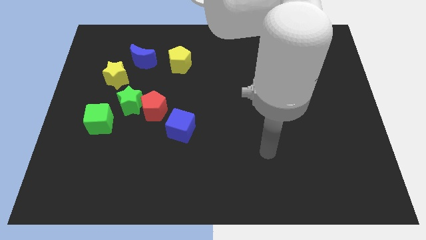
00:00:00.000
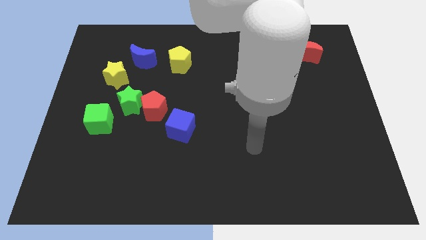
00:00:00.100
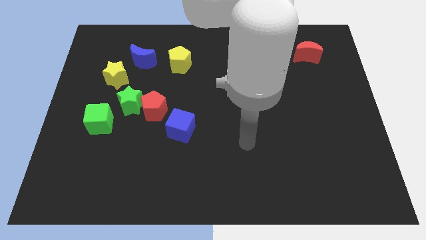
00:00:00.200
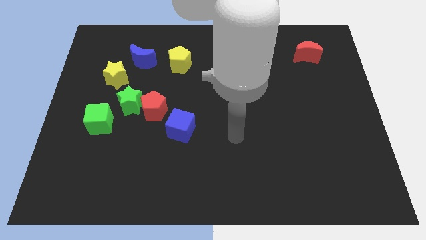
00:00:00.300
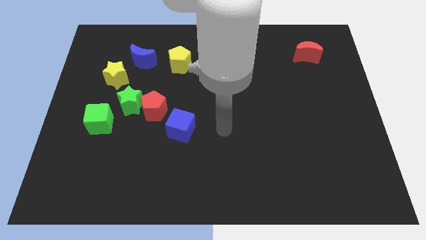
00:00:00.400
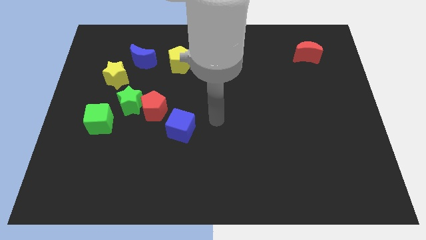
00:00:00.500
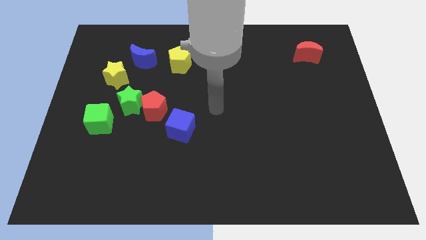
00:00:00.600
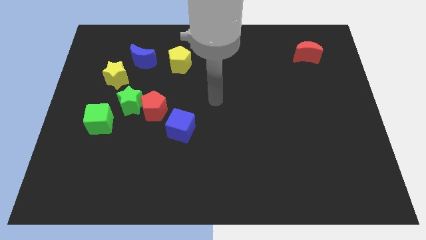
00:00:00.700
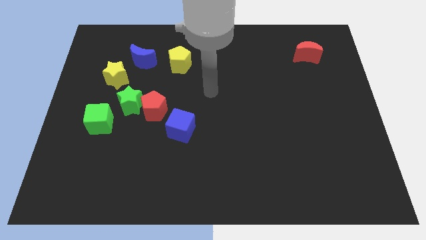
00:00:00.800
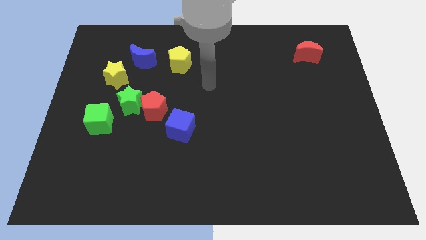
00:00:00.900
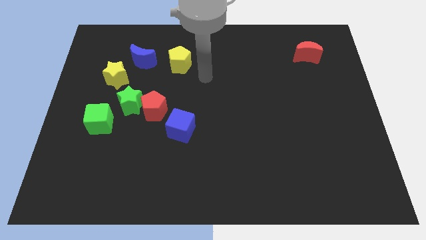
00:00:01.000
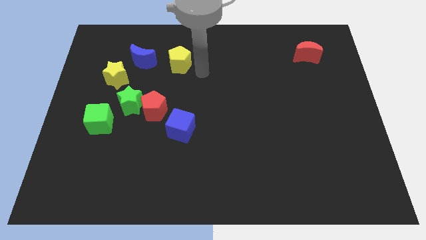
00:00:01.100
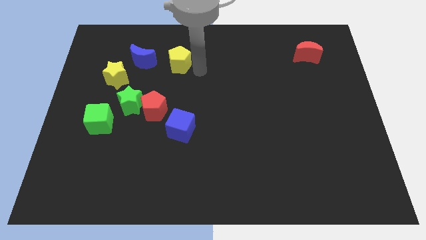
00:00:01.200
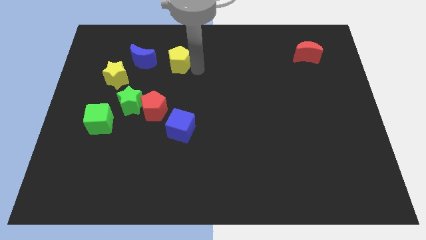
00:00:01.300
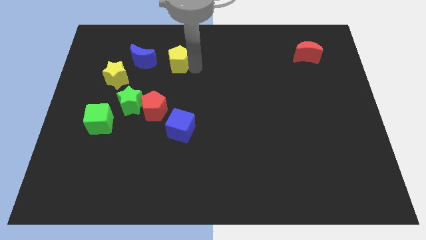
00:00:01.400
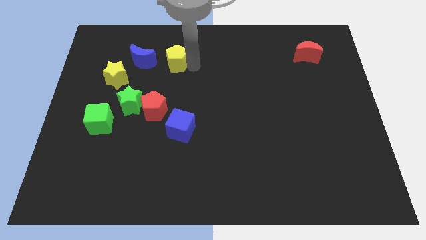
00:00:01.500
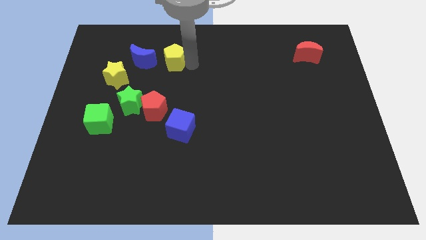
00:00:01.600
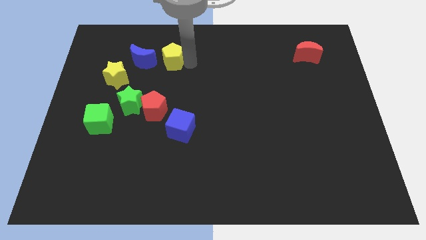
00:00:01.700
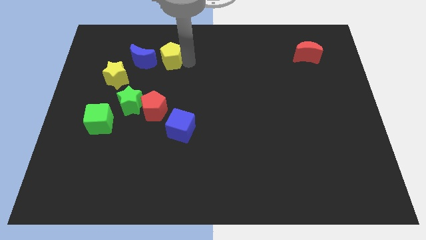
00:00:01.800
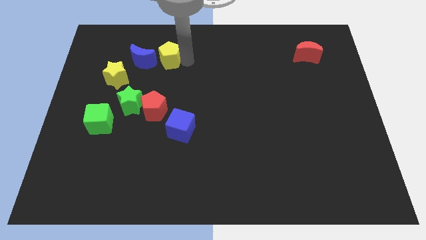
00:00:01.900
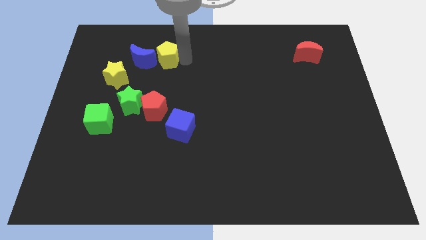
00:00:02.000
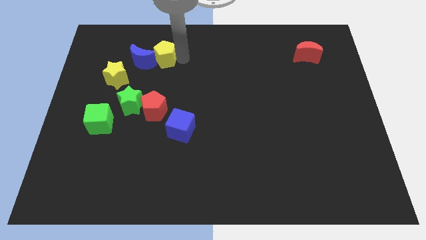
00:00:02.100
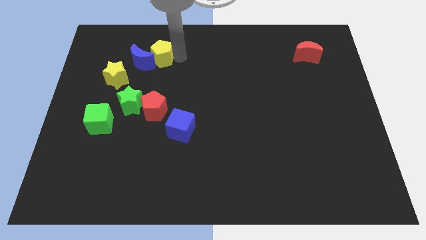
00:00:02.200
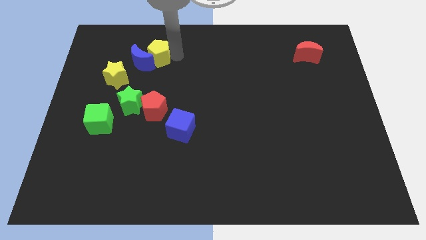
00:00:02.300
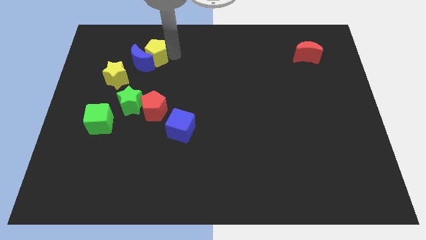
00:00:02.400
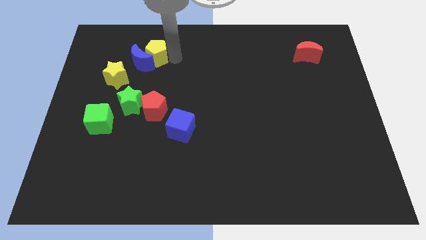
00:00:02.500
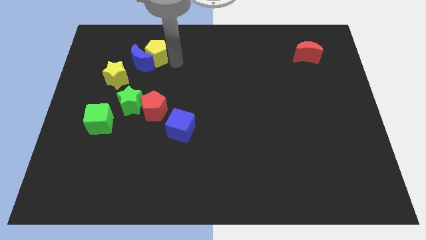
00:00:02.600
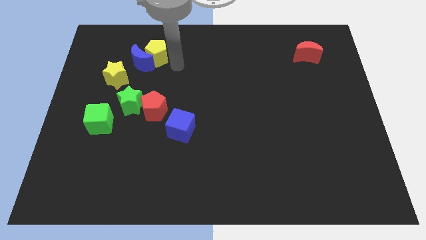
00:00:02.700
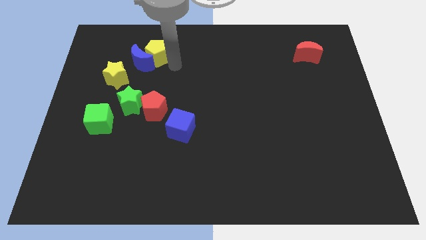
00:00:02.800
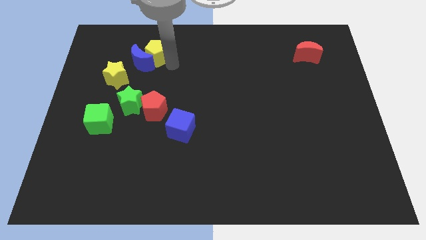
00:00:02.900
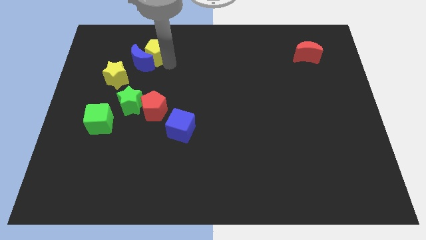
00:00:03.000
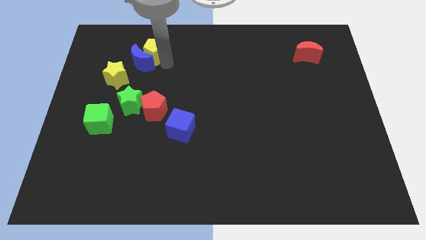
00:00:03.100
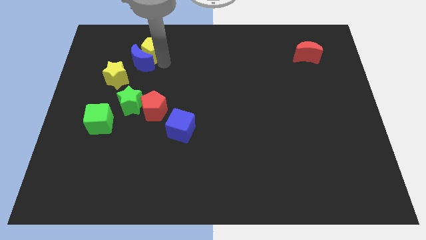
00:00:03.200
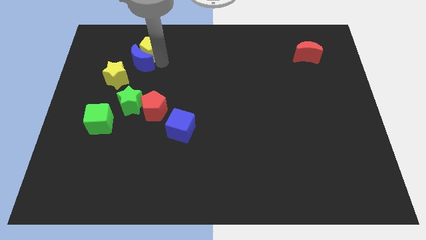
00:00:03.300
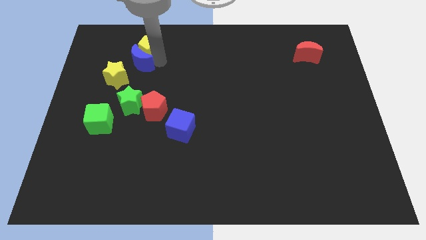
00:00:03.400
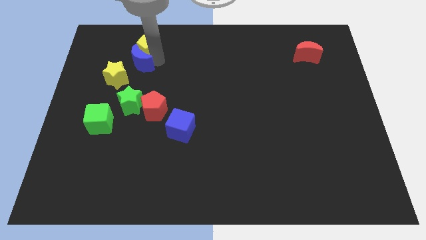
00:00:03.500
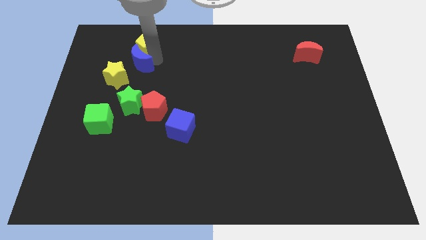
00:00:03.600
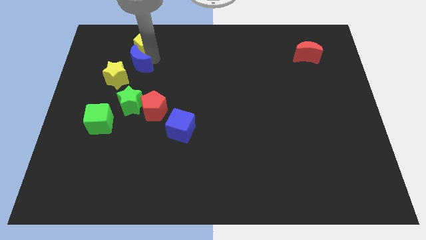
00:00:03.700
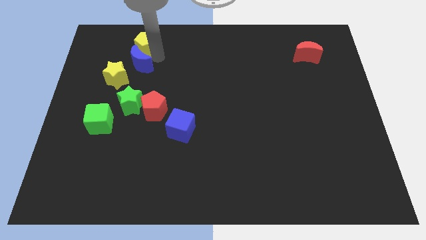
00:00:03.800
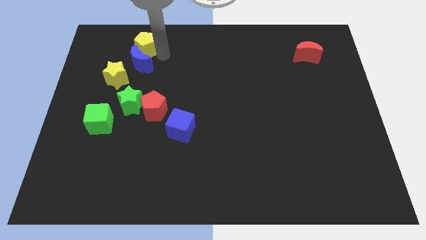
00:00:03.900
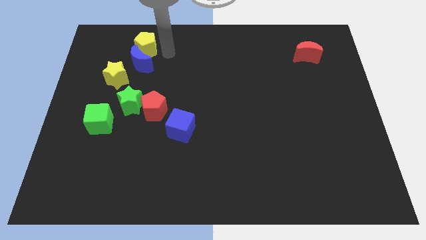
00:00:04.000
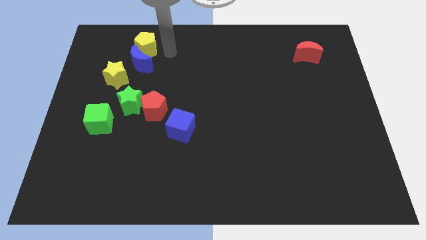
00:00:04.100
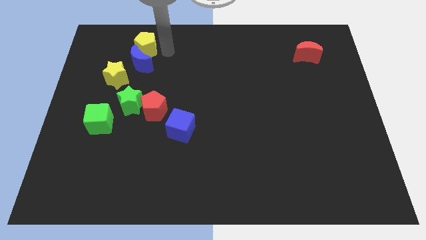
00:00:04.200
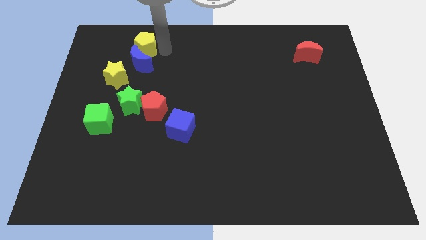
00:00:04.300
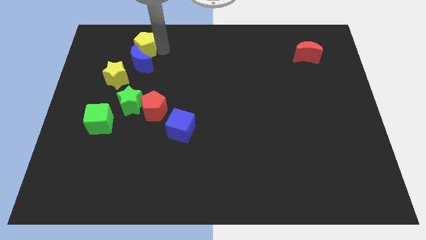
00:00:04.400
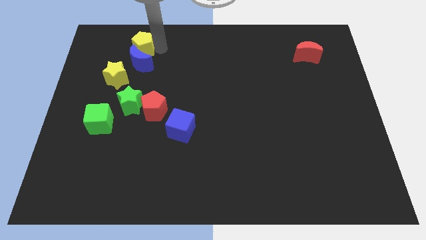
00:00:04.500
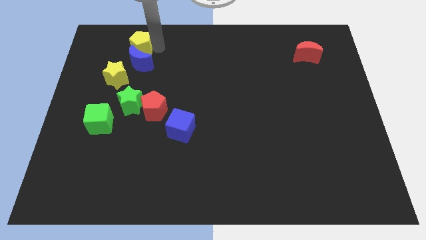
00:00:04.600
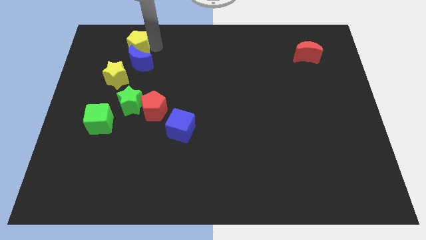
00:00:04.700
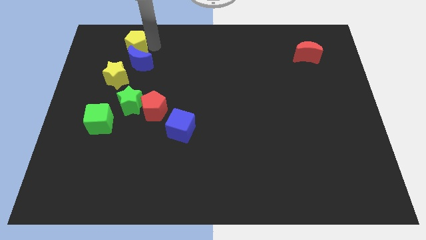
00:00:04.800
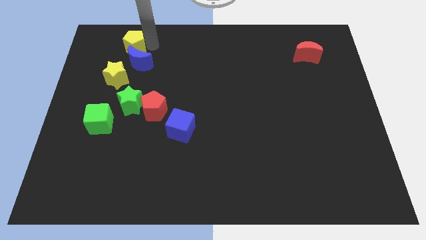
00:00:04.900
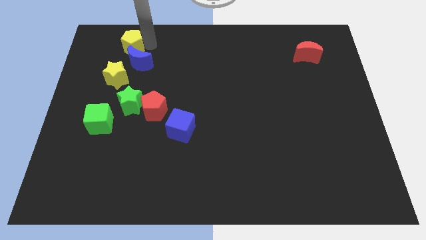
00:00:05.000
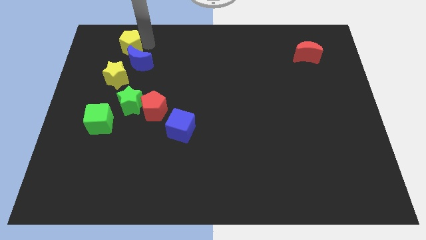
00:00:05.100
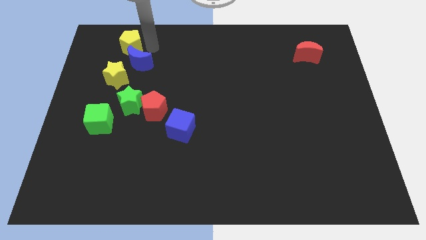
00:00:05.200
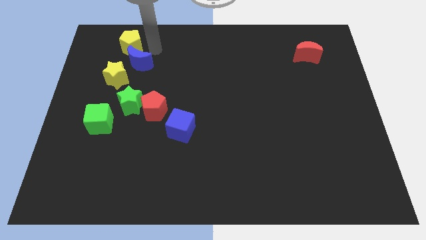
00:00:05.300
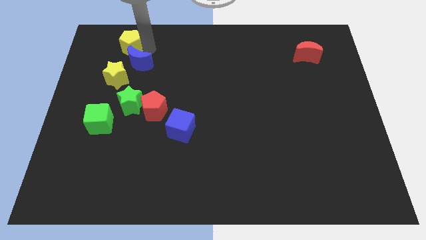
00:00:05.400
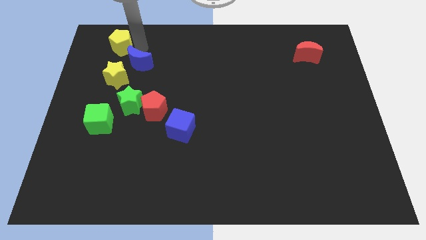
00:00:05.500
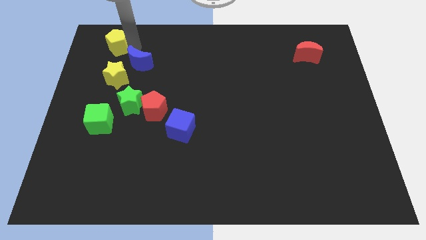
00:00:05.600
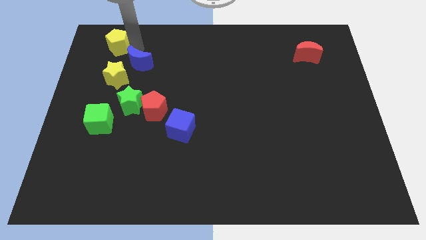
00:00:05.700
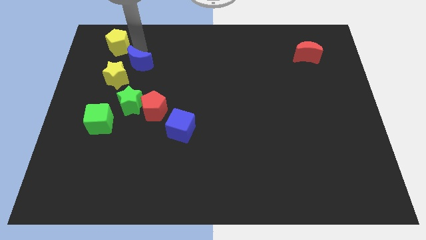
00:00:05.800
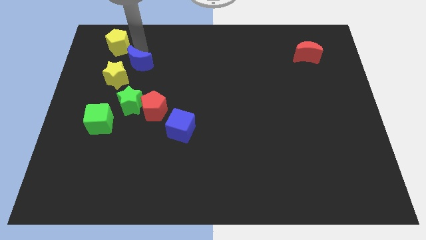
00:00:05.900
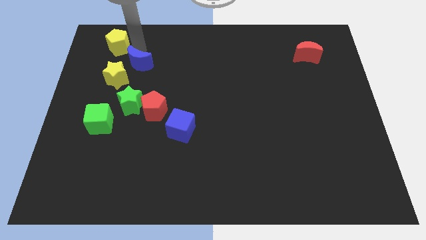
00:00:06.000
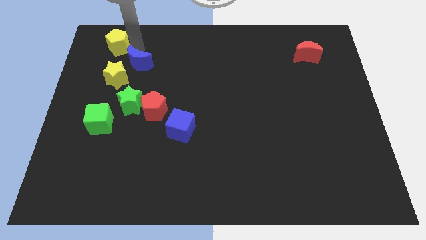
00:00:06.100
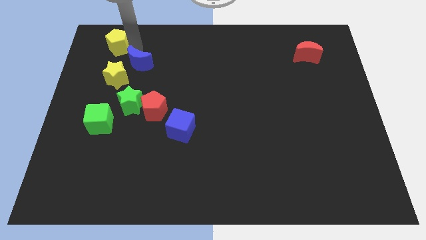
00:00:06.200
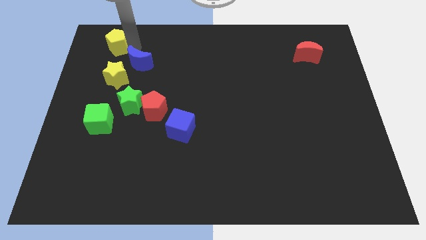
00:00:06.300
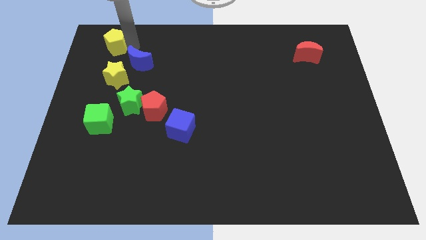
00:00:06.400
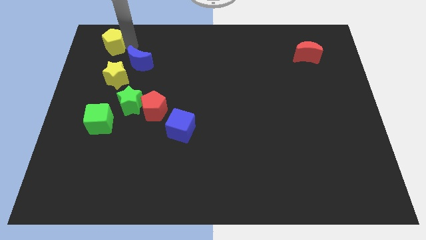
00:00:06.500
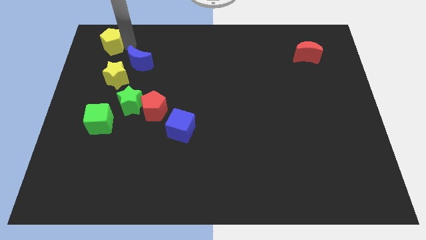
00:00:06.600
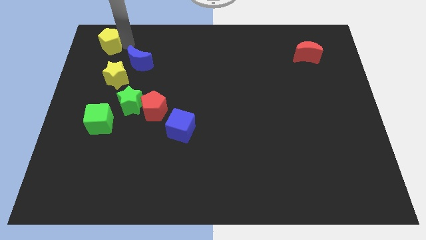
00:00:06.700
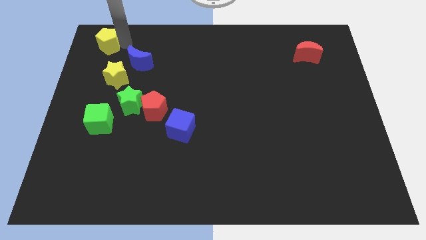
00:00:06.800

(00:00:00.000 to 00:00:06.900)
push the yellow pentagon to the top left of the board

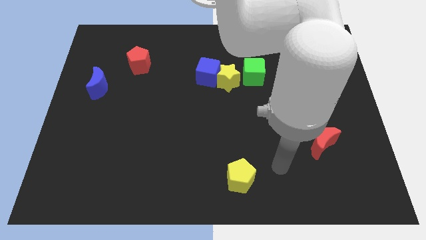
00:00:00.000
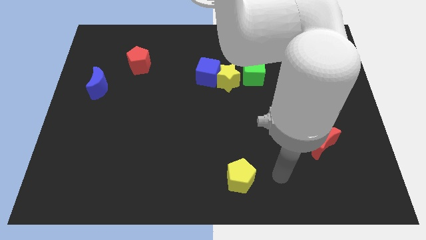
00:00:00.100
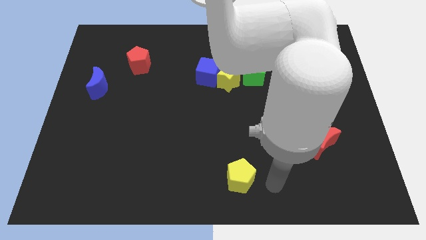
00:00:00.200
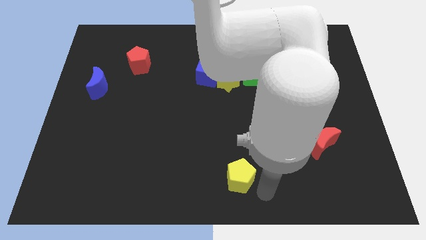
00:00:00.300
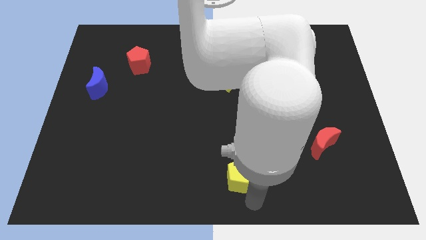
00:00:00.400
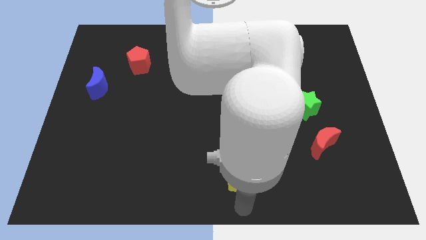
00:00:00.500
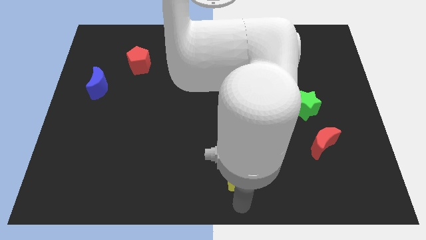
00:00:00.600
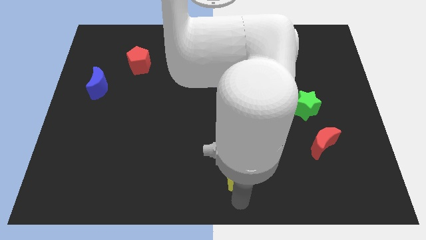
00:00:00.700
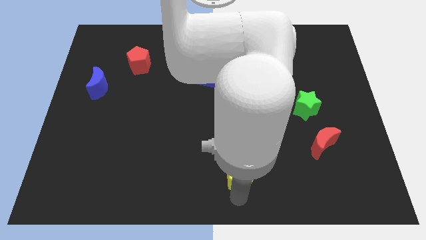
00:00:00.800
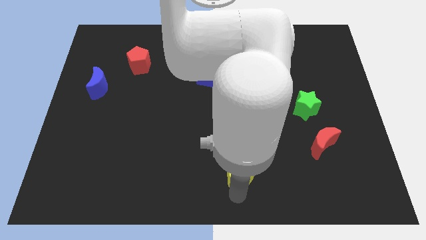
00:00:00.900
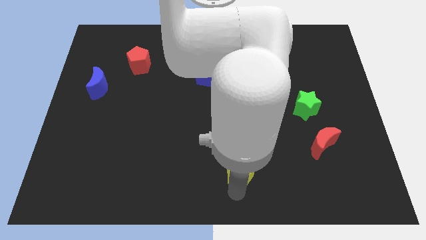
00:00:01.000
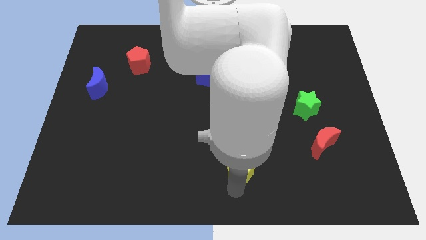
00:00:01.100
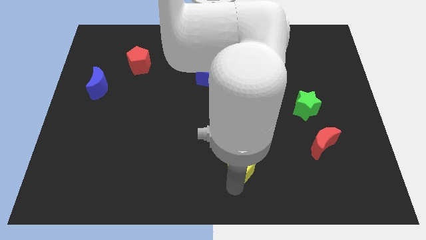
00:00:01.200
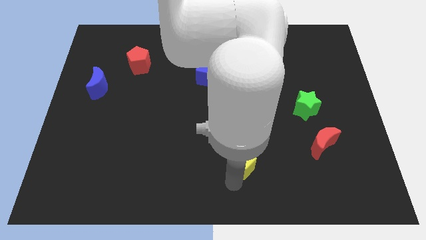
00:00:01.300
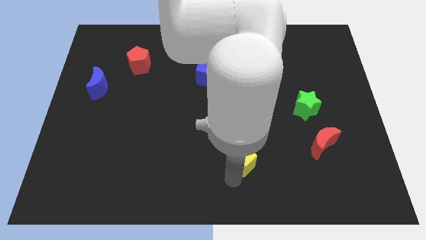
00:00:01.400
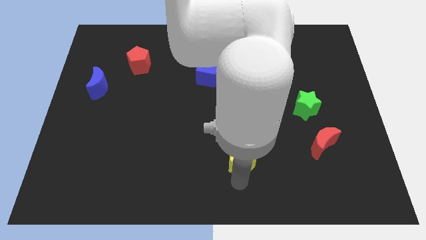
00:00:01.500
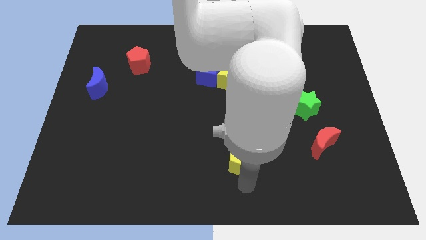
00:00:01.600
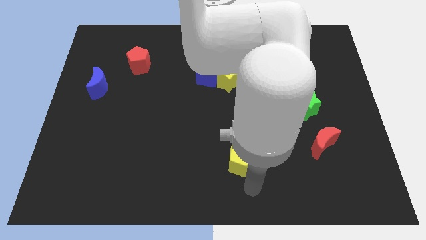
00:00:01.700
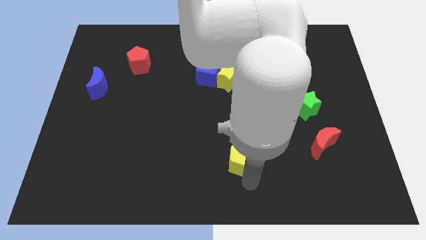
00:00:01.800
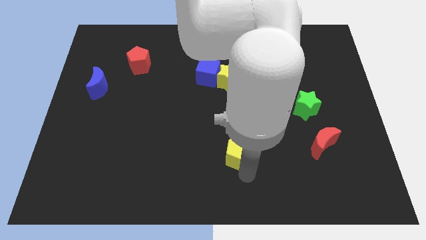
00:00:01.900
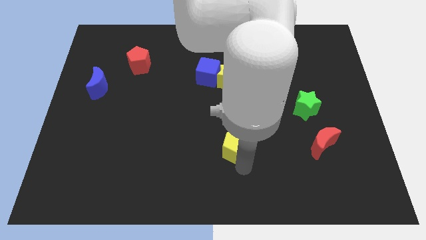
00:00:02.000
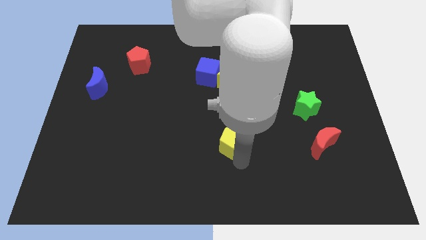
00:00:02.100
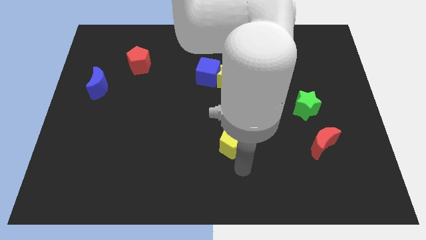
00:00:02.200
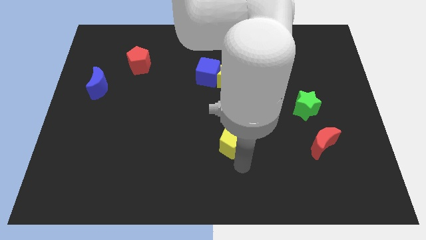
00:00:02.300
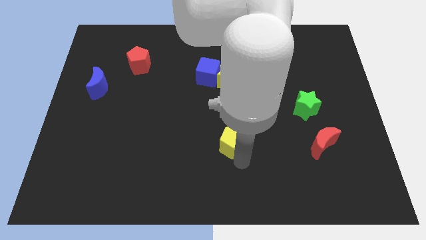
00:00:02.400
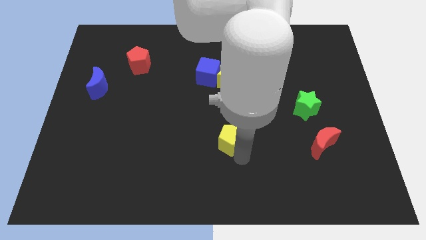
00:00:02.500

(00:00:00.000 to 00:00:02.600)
move the yellow pentagon to the middle
